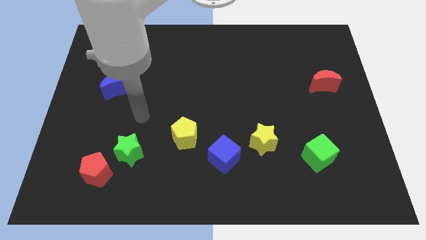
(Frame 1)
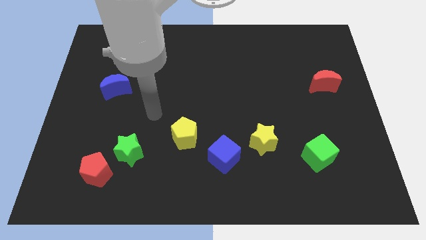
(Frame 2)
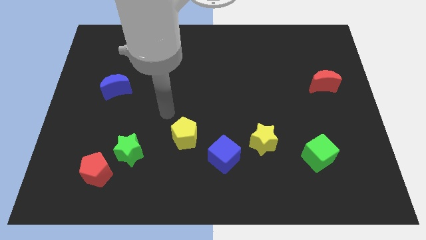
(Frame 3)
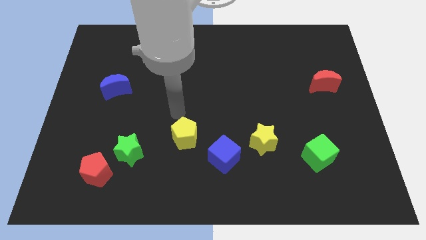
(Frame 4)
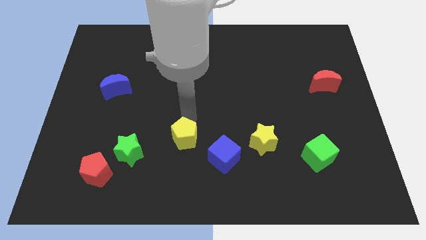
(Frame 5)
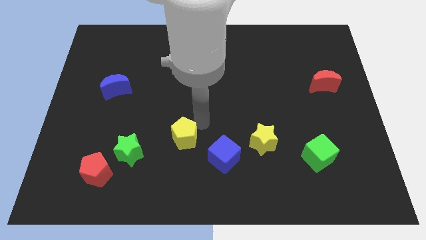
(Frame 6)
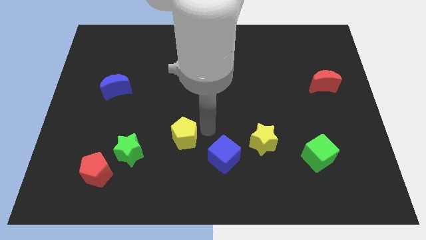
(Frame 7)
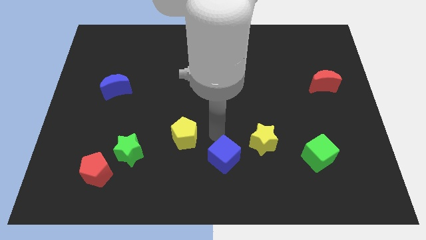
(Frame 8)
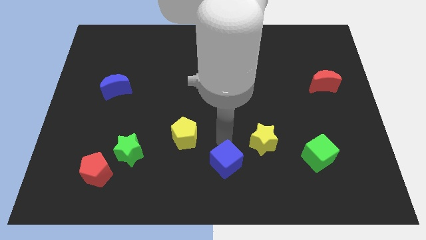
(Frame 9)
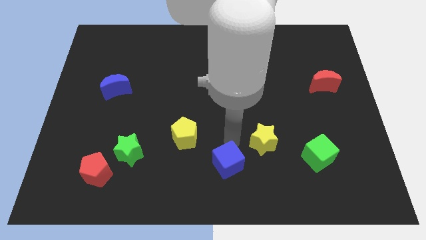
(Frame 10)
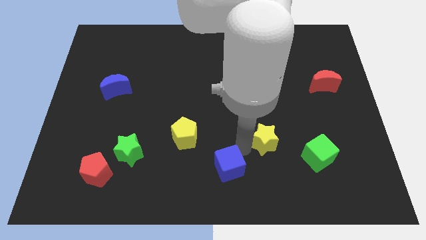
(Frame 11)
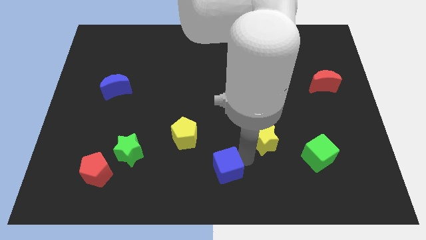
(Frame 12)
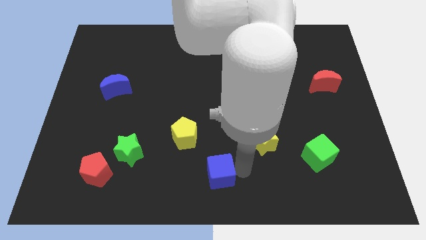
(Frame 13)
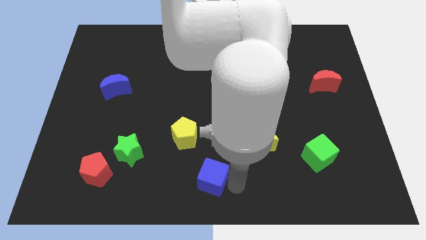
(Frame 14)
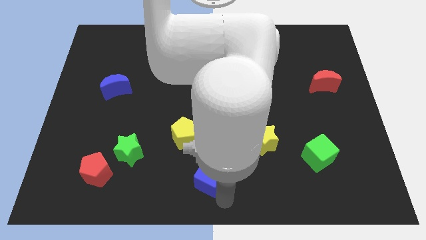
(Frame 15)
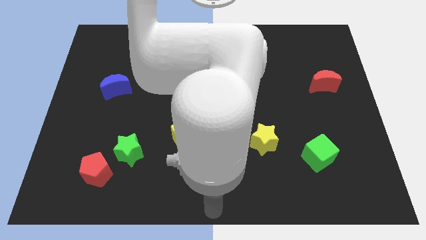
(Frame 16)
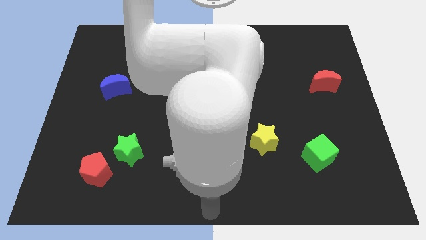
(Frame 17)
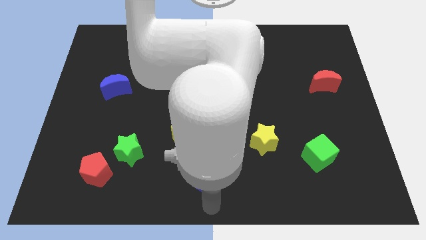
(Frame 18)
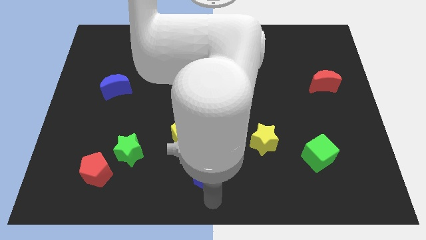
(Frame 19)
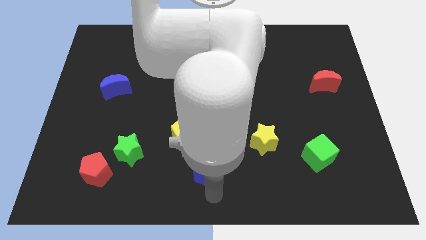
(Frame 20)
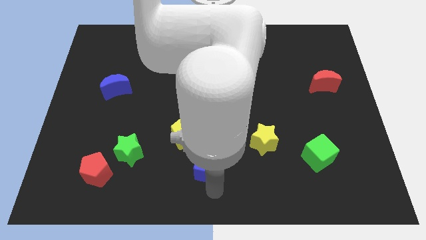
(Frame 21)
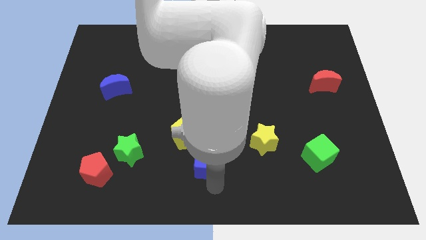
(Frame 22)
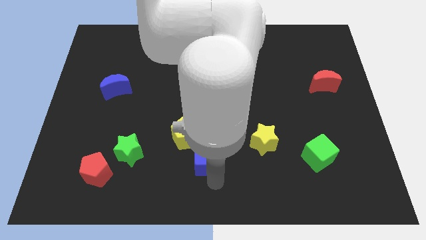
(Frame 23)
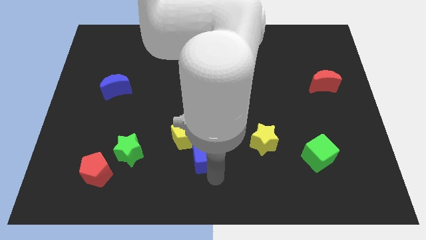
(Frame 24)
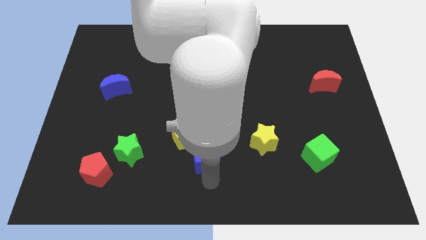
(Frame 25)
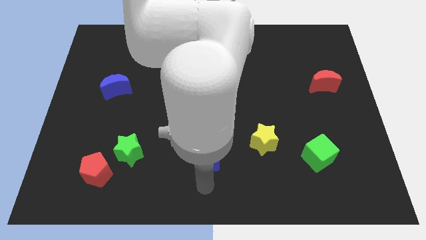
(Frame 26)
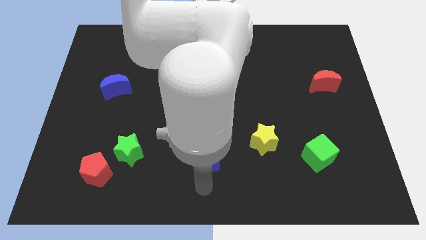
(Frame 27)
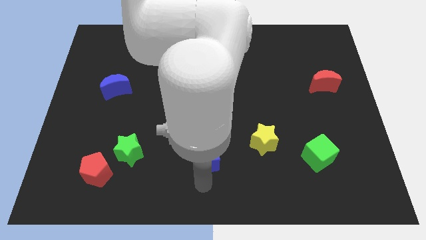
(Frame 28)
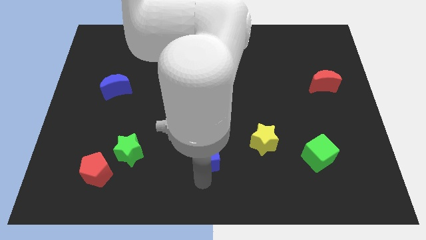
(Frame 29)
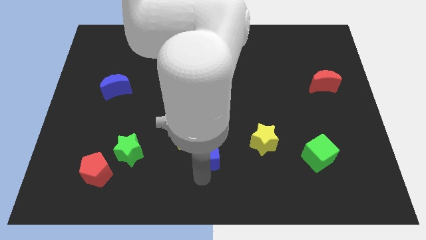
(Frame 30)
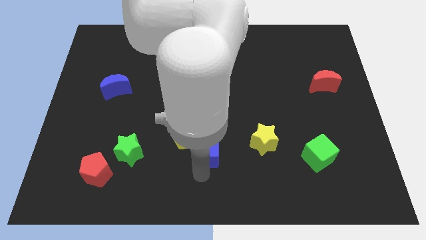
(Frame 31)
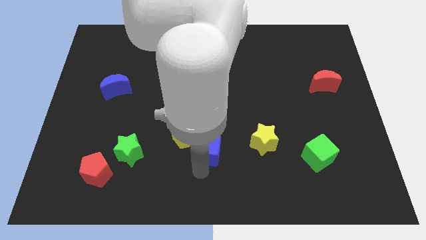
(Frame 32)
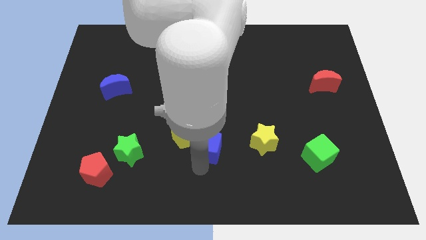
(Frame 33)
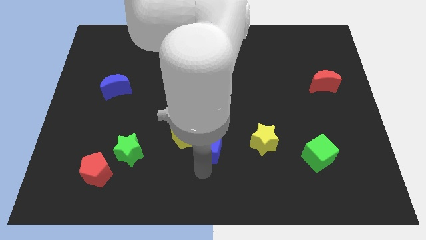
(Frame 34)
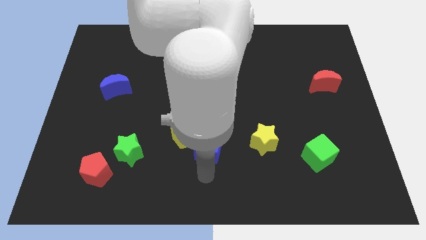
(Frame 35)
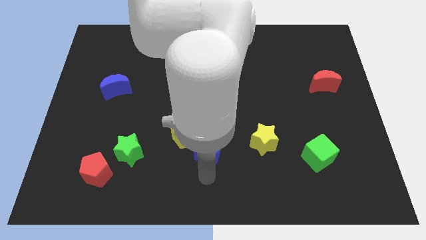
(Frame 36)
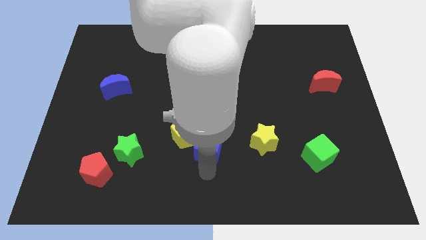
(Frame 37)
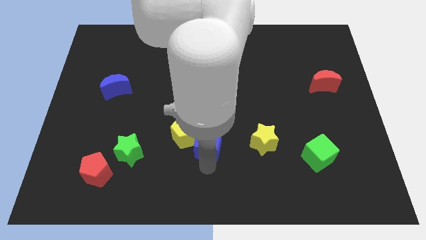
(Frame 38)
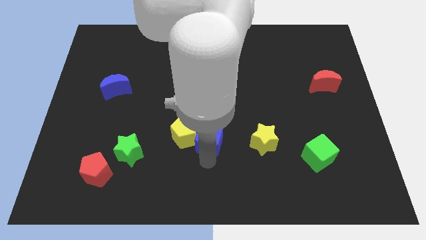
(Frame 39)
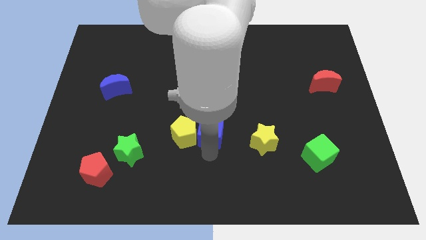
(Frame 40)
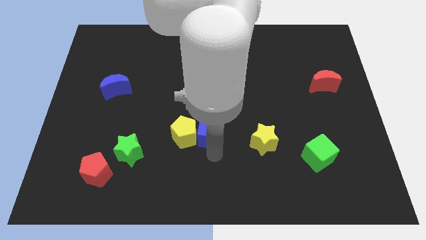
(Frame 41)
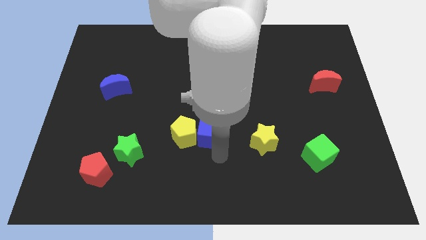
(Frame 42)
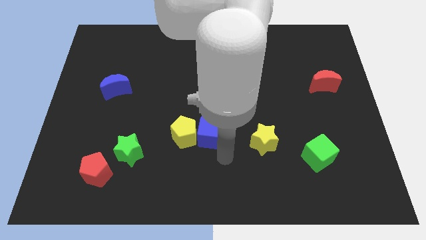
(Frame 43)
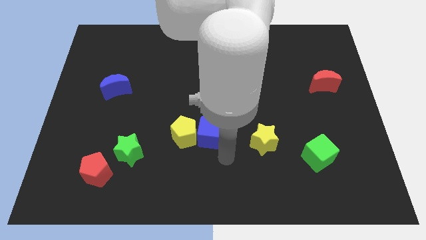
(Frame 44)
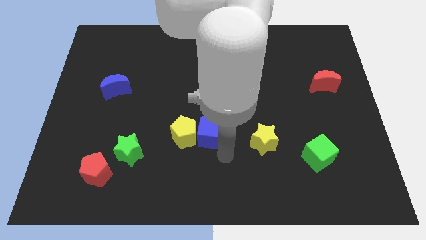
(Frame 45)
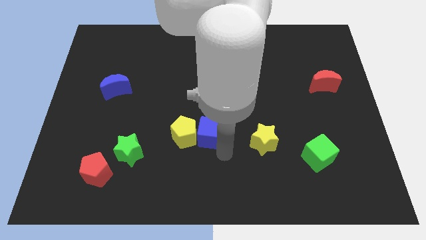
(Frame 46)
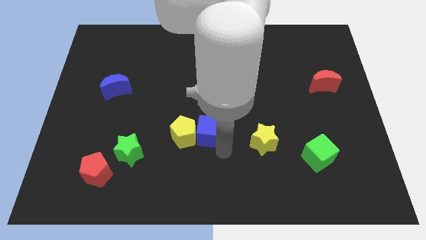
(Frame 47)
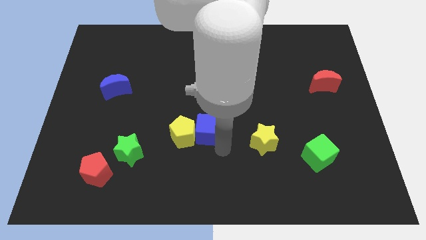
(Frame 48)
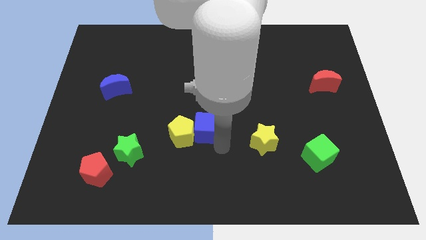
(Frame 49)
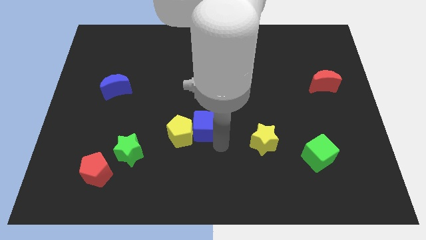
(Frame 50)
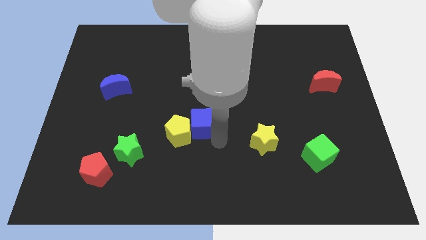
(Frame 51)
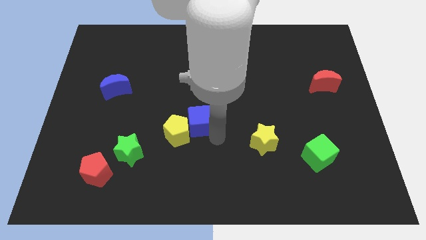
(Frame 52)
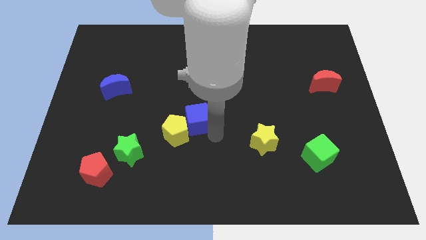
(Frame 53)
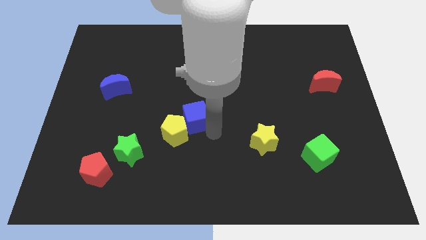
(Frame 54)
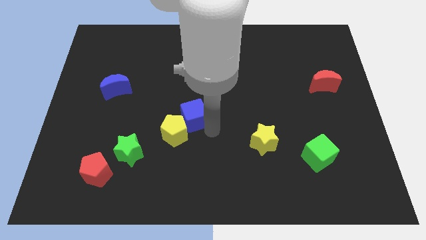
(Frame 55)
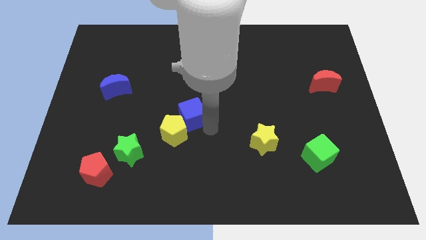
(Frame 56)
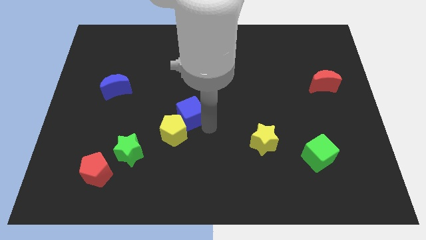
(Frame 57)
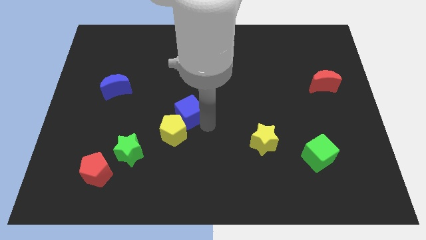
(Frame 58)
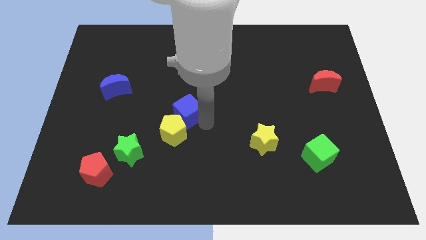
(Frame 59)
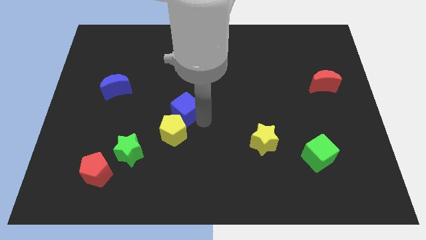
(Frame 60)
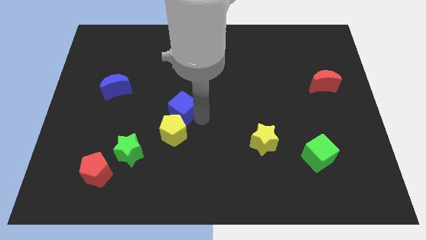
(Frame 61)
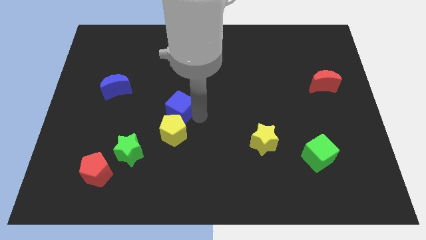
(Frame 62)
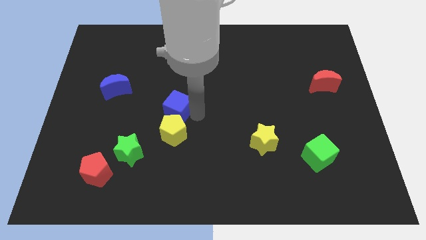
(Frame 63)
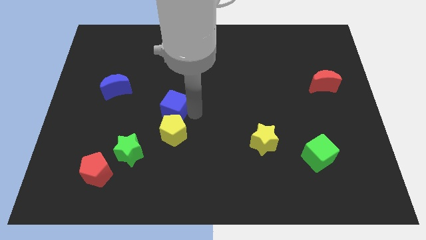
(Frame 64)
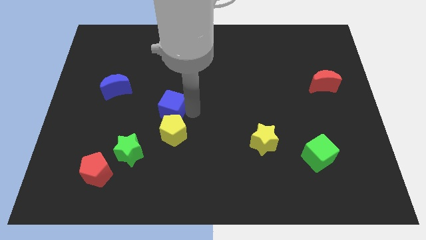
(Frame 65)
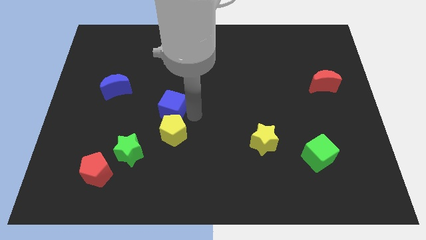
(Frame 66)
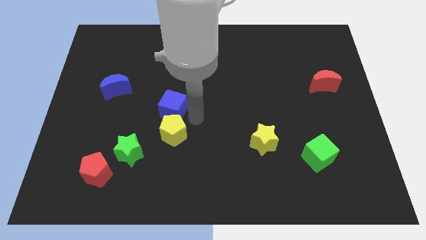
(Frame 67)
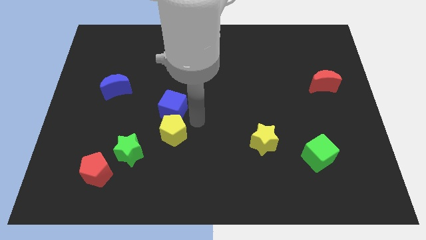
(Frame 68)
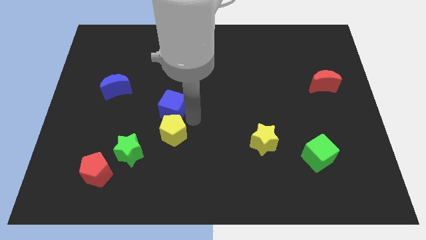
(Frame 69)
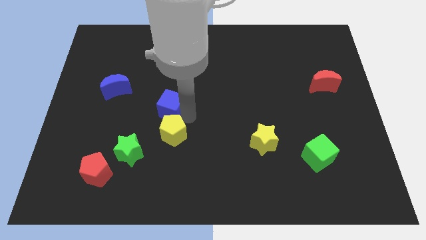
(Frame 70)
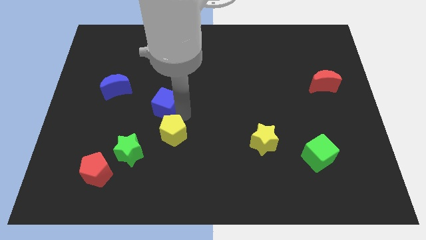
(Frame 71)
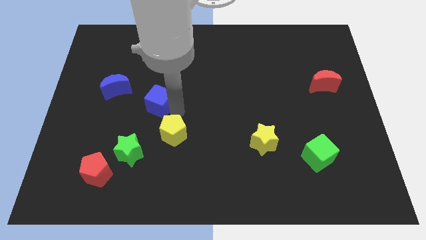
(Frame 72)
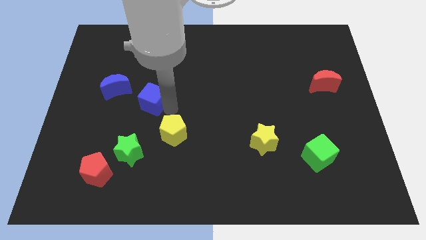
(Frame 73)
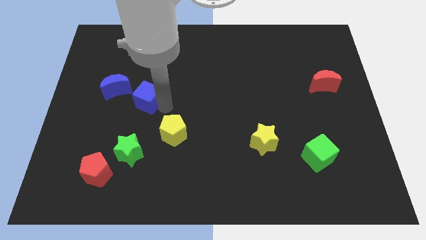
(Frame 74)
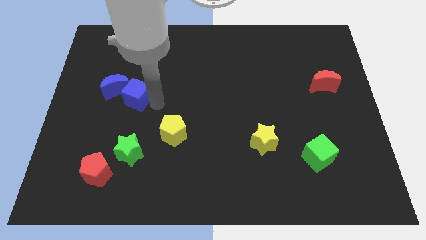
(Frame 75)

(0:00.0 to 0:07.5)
move the blue cube towards the blue moon

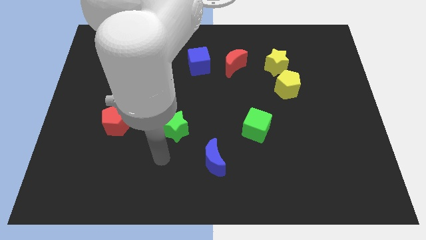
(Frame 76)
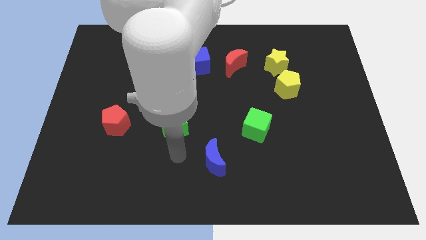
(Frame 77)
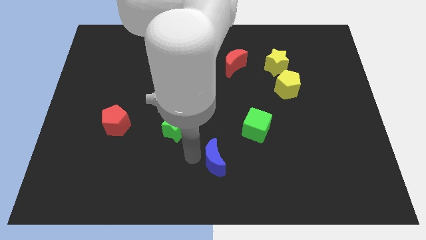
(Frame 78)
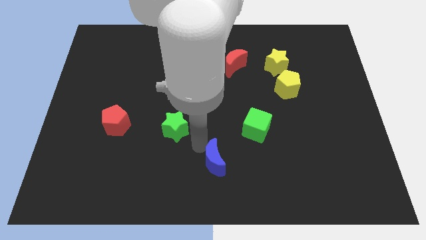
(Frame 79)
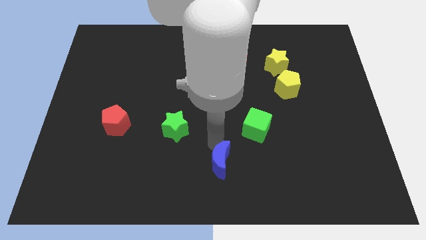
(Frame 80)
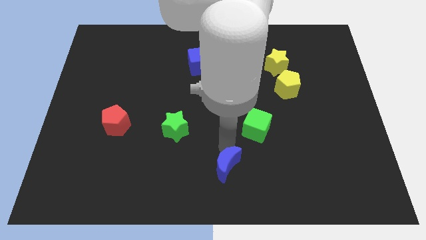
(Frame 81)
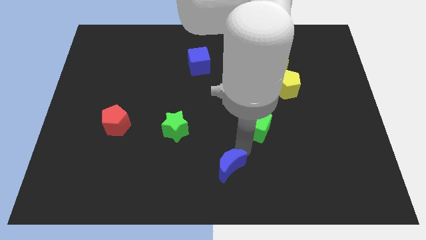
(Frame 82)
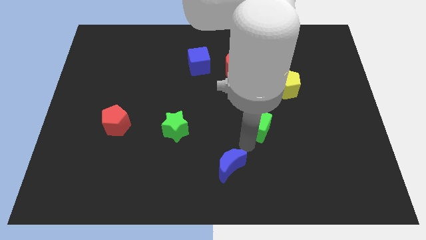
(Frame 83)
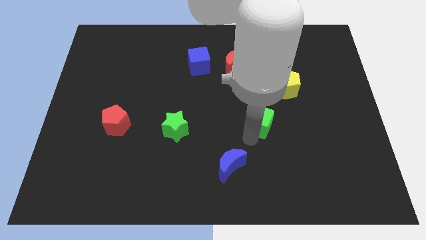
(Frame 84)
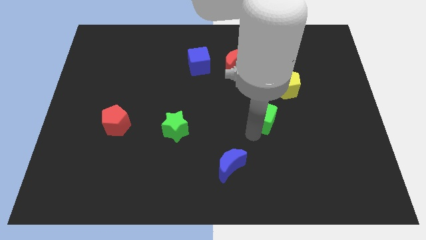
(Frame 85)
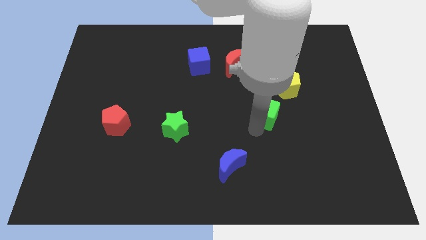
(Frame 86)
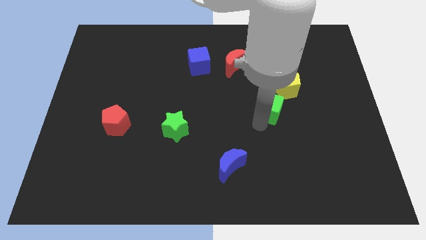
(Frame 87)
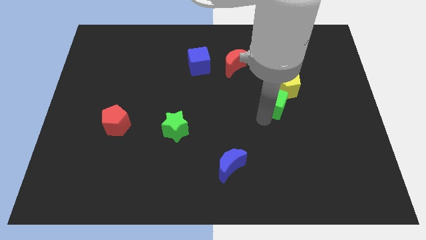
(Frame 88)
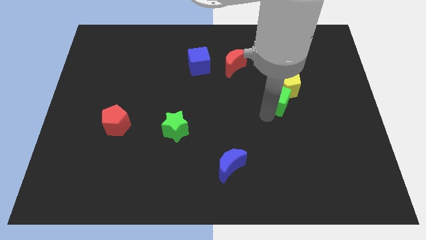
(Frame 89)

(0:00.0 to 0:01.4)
slide the green cube to the yellow pentagon

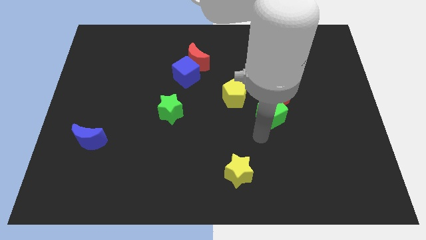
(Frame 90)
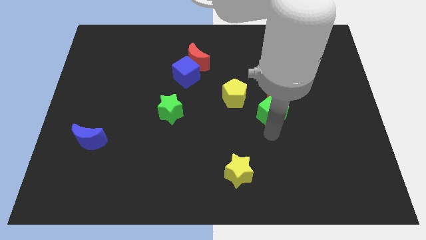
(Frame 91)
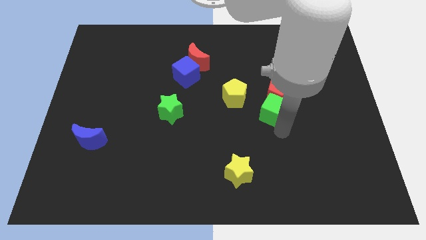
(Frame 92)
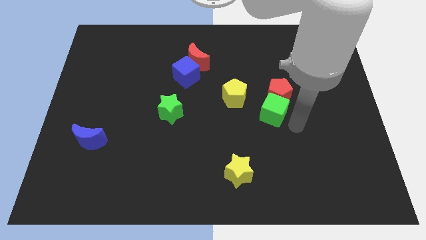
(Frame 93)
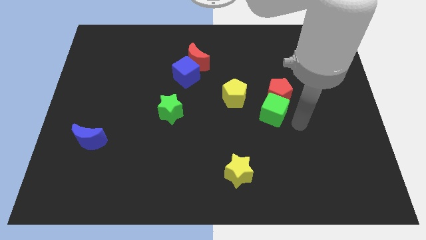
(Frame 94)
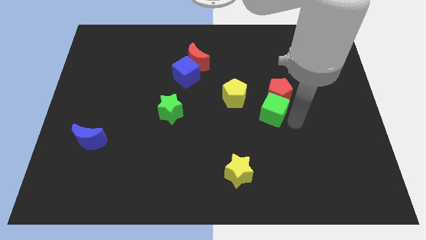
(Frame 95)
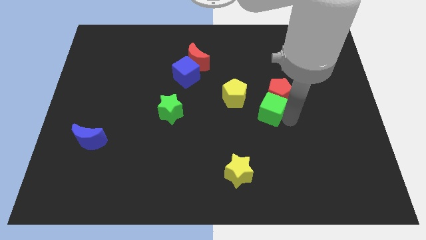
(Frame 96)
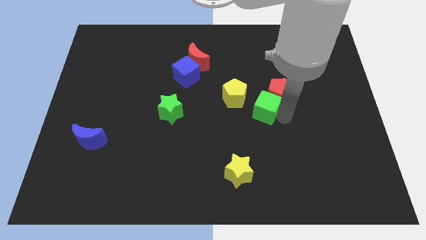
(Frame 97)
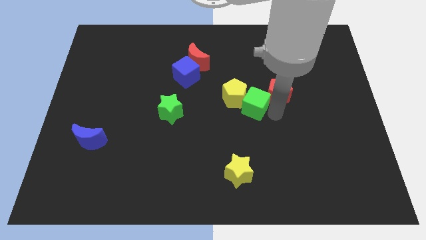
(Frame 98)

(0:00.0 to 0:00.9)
slide the green cube next to the yellow pentagon
